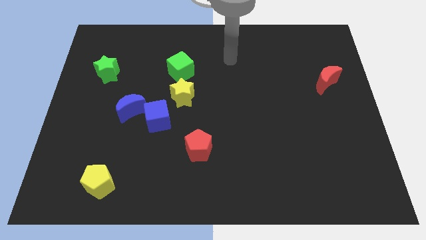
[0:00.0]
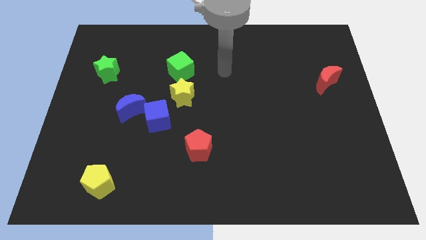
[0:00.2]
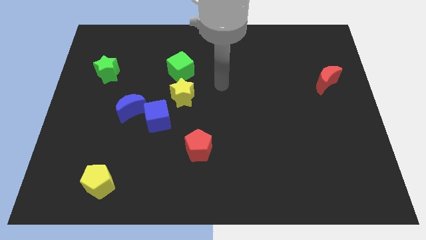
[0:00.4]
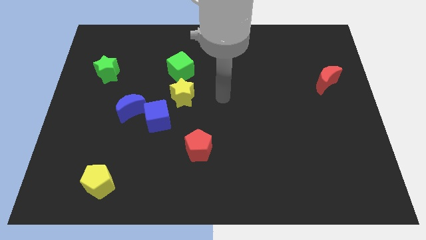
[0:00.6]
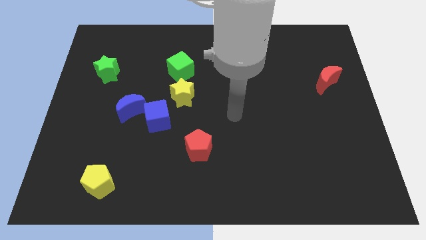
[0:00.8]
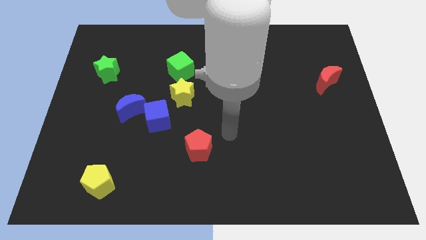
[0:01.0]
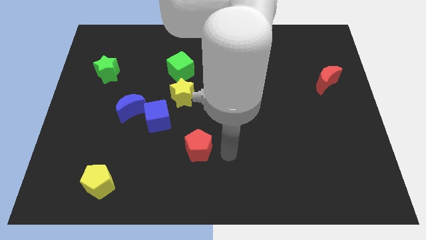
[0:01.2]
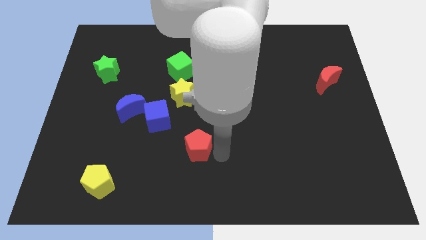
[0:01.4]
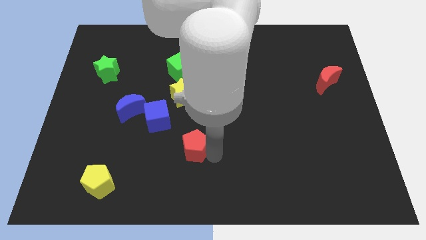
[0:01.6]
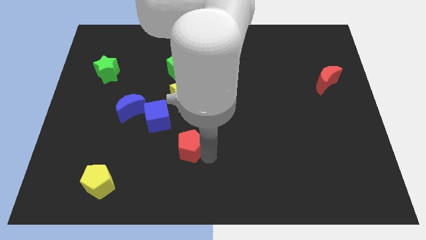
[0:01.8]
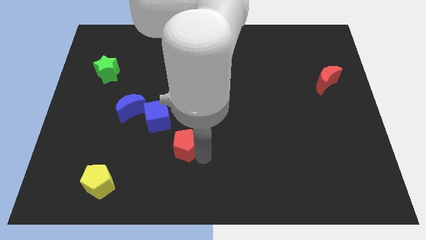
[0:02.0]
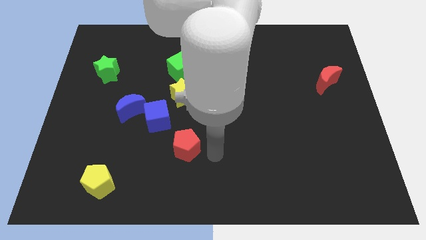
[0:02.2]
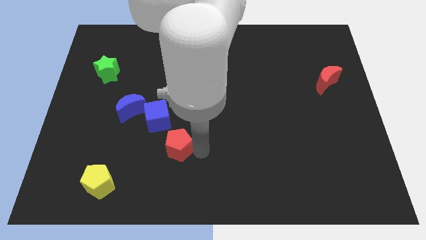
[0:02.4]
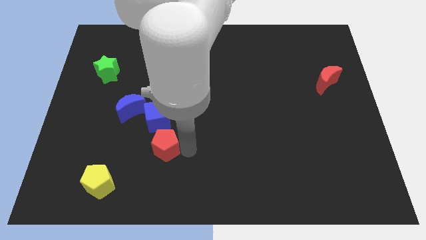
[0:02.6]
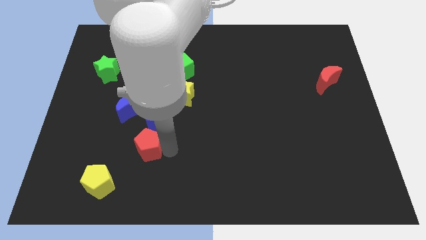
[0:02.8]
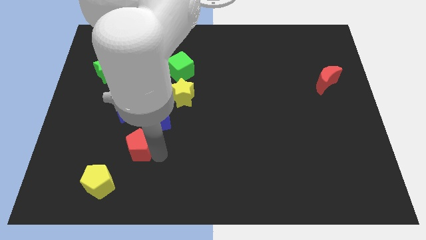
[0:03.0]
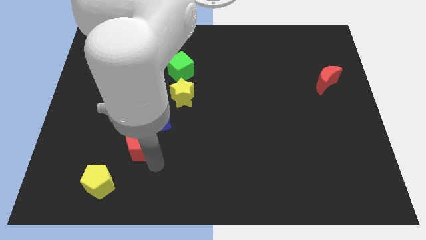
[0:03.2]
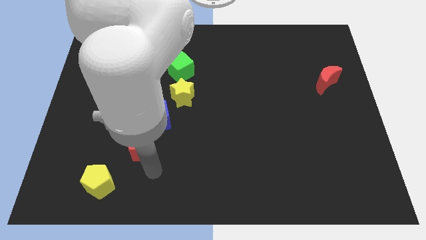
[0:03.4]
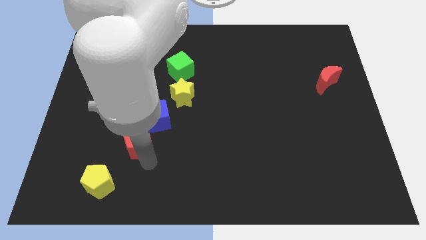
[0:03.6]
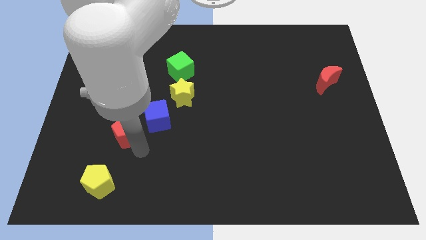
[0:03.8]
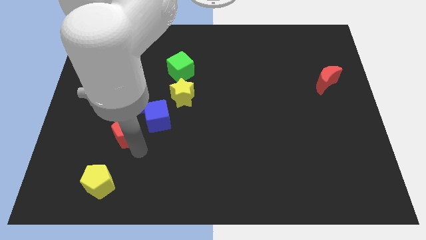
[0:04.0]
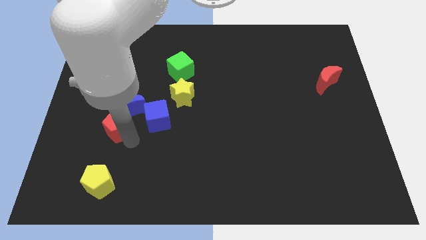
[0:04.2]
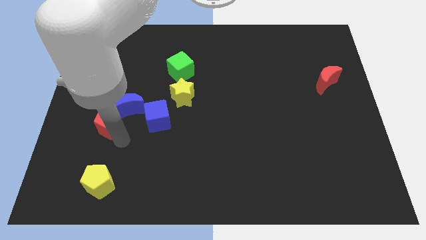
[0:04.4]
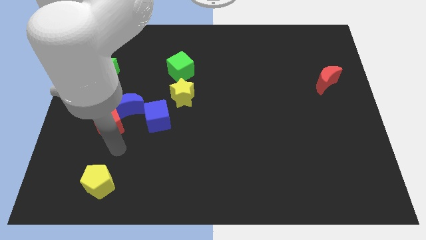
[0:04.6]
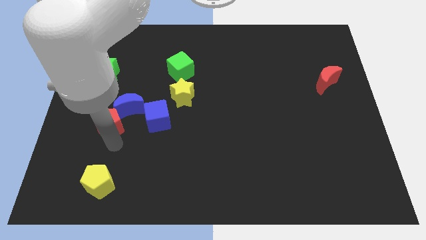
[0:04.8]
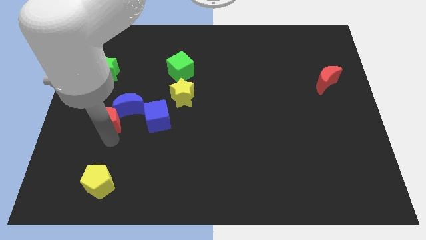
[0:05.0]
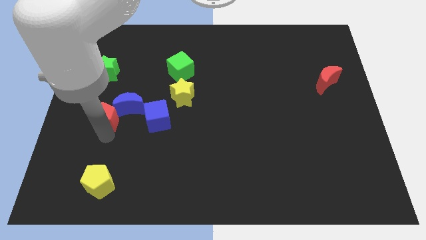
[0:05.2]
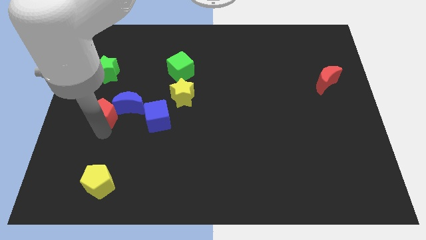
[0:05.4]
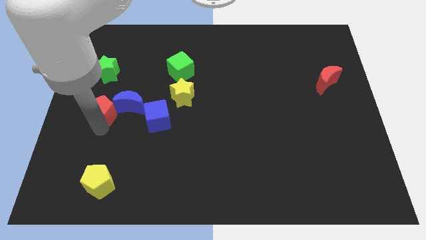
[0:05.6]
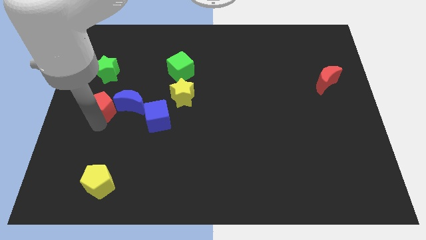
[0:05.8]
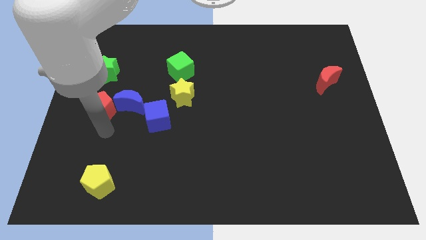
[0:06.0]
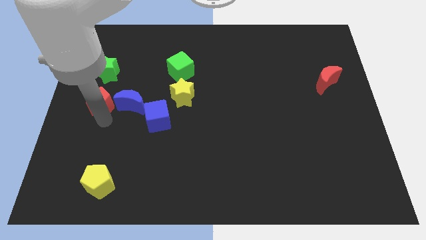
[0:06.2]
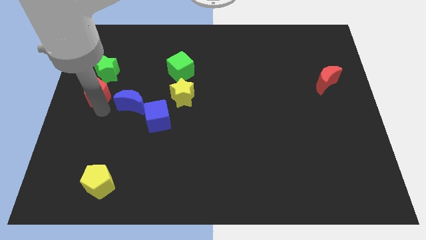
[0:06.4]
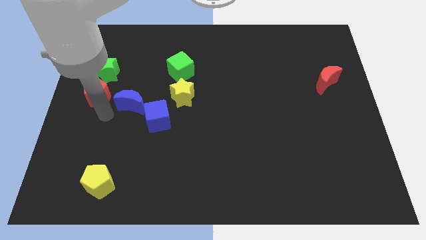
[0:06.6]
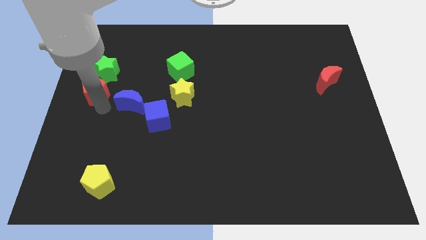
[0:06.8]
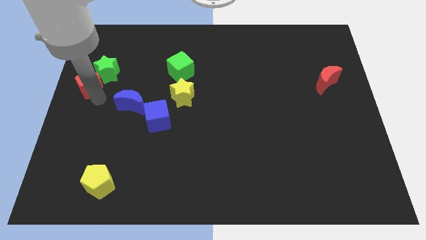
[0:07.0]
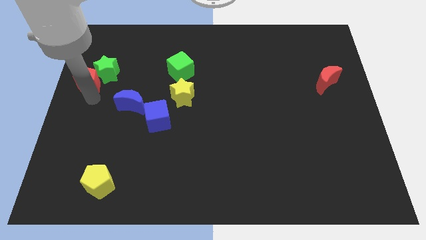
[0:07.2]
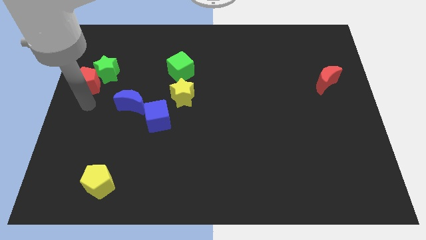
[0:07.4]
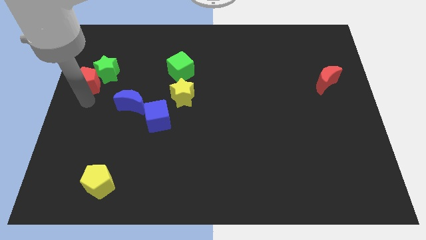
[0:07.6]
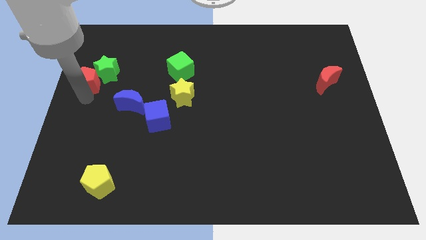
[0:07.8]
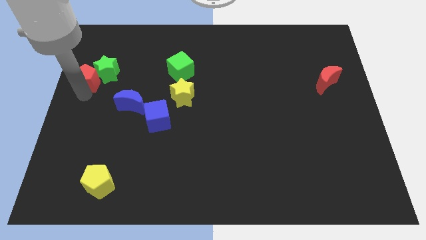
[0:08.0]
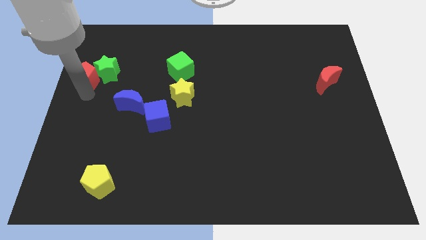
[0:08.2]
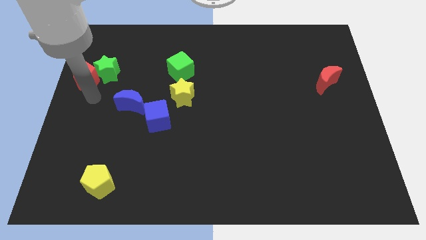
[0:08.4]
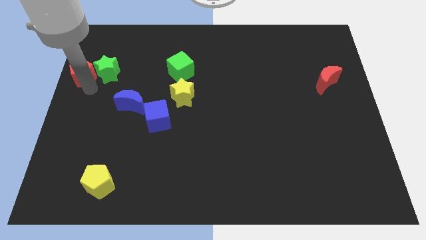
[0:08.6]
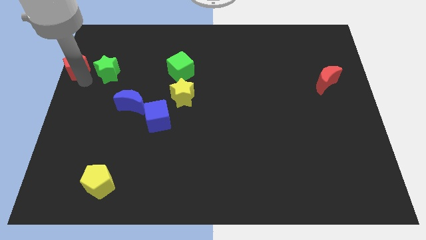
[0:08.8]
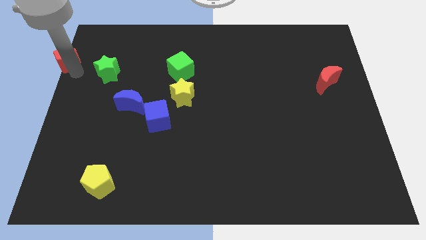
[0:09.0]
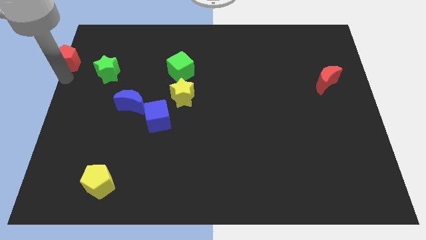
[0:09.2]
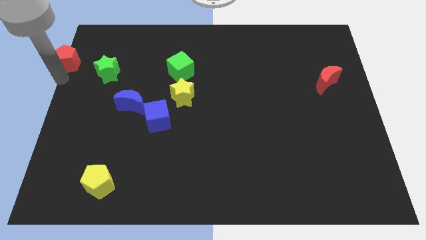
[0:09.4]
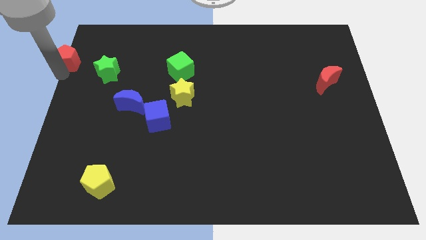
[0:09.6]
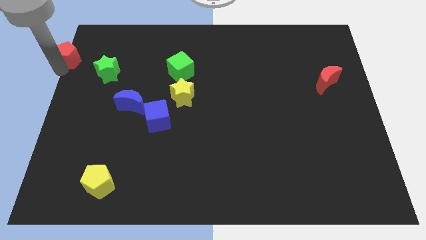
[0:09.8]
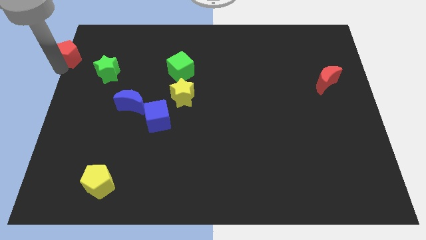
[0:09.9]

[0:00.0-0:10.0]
move the red pentagon to the top left
